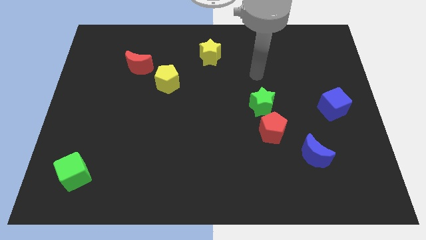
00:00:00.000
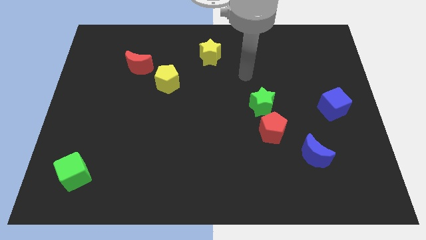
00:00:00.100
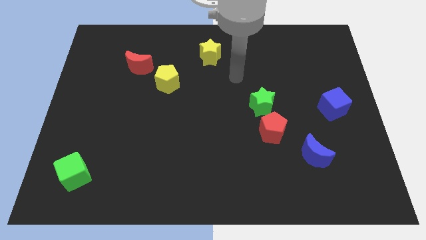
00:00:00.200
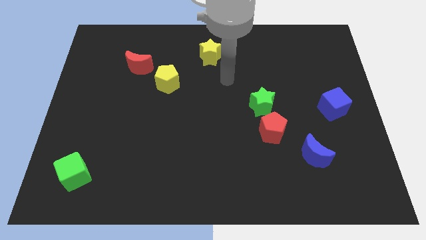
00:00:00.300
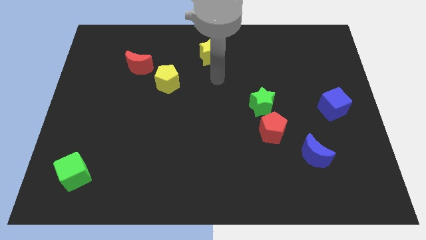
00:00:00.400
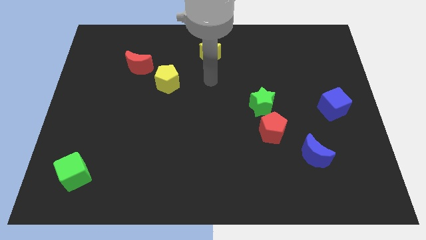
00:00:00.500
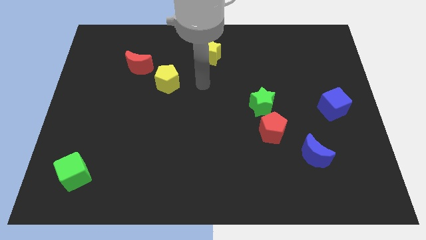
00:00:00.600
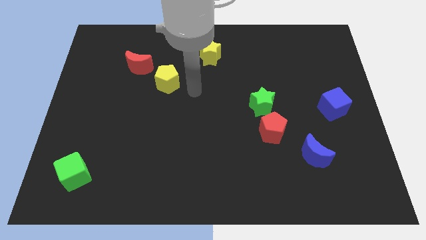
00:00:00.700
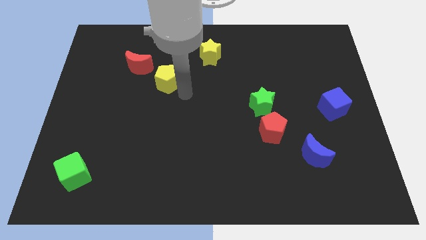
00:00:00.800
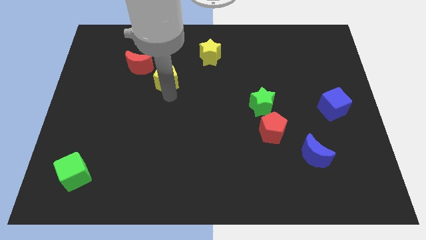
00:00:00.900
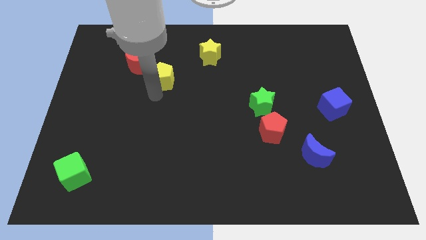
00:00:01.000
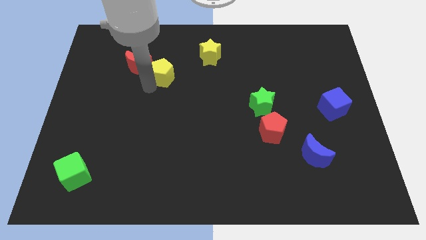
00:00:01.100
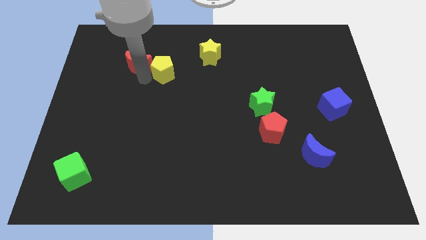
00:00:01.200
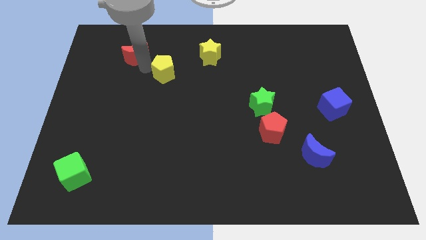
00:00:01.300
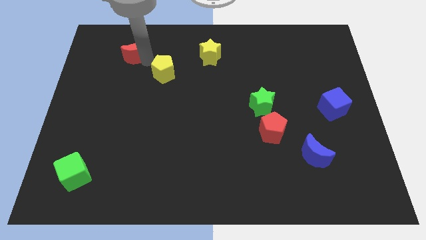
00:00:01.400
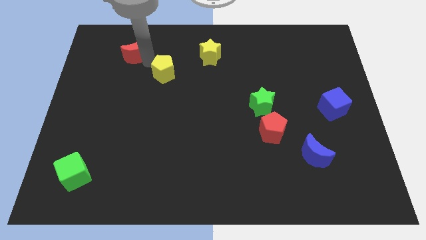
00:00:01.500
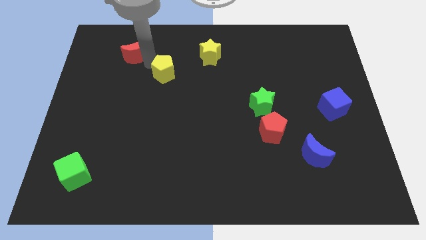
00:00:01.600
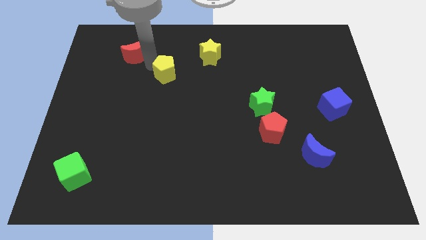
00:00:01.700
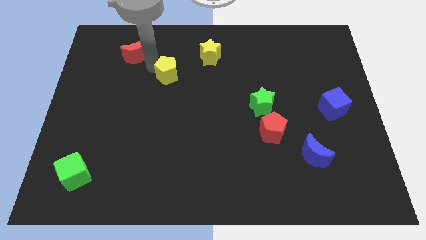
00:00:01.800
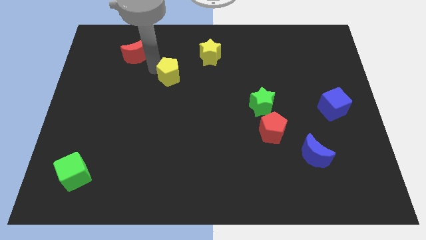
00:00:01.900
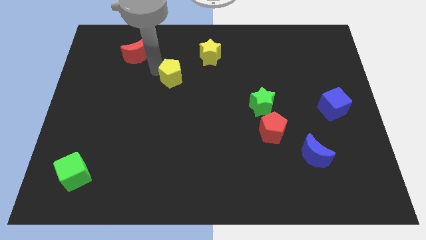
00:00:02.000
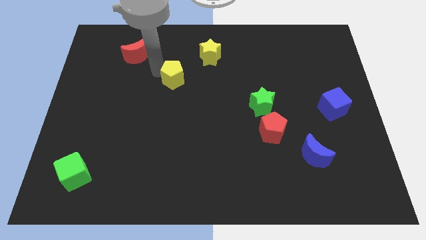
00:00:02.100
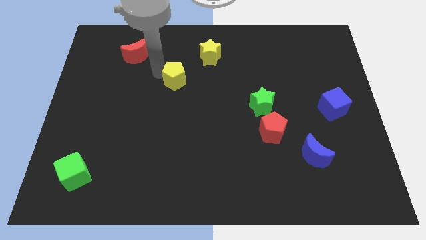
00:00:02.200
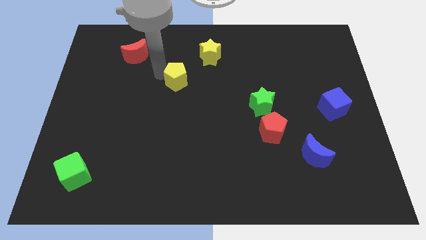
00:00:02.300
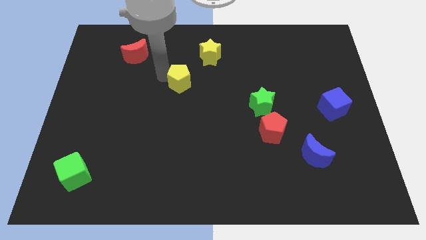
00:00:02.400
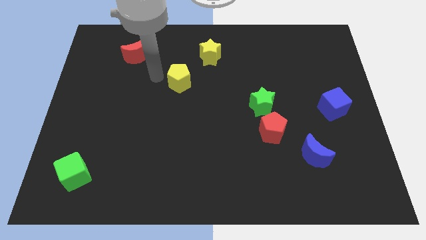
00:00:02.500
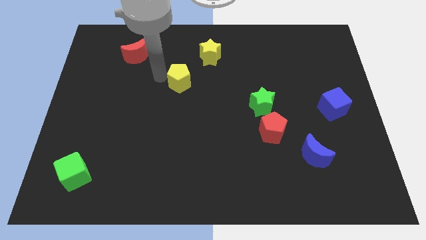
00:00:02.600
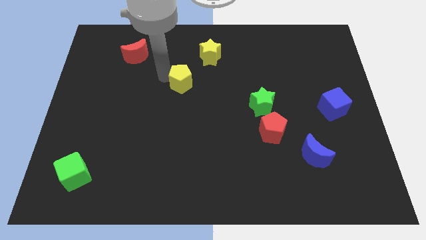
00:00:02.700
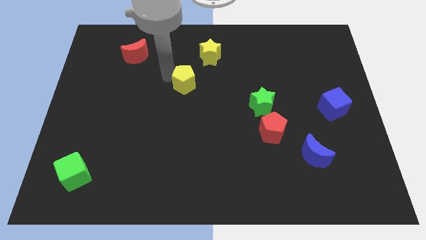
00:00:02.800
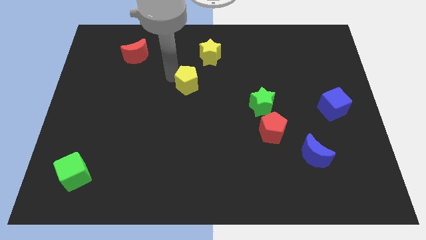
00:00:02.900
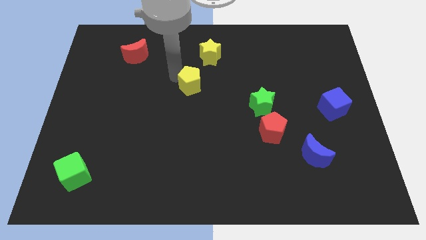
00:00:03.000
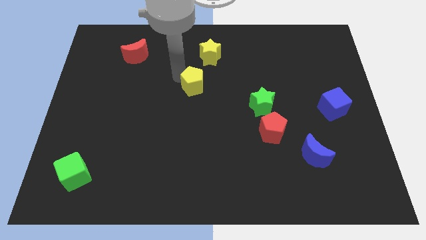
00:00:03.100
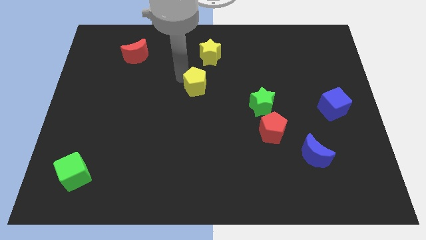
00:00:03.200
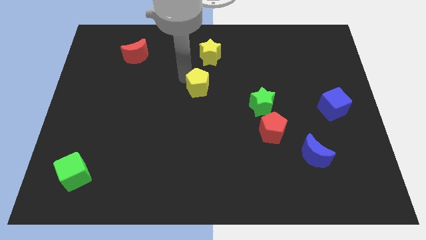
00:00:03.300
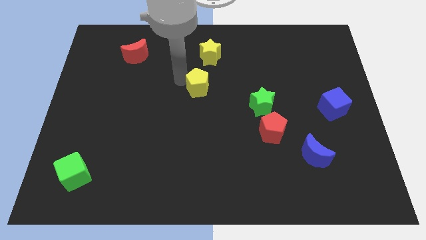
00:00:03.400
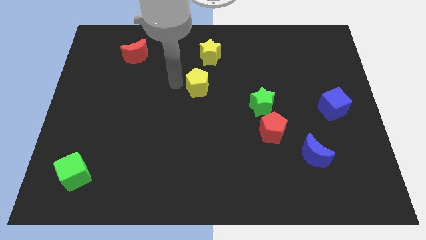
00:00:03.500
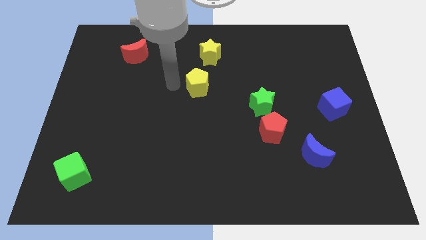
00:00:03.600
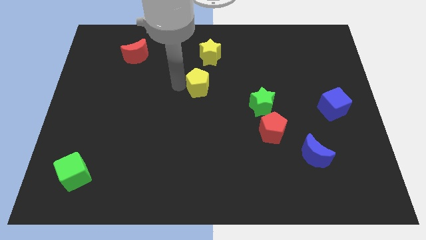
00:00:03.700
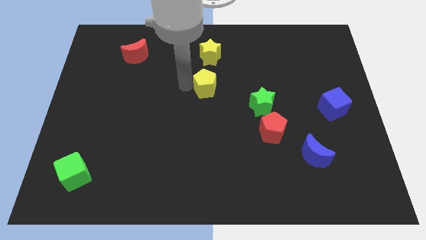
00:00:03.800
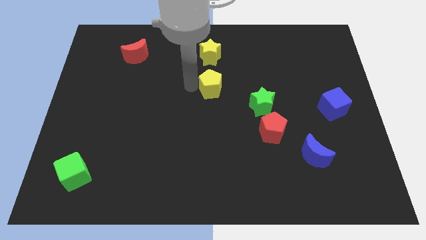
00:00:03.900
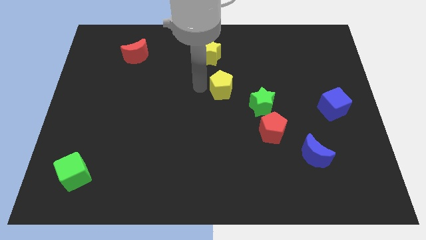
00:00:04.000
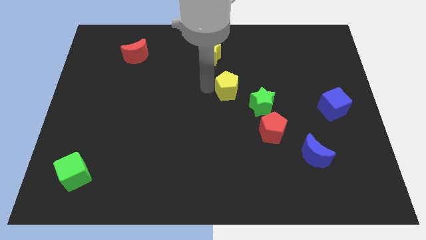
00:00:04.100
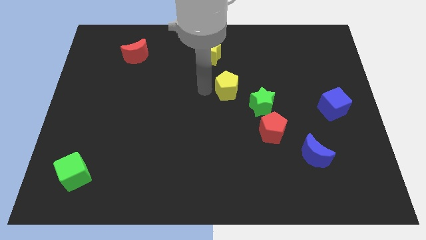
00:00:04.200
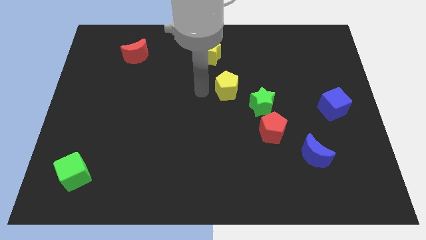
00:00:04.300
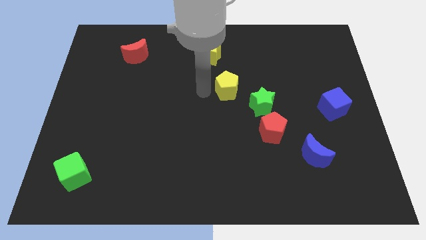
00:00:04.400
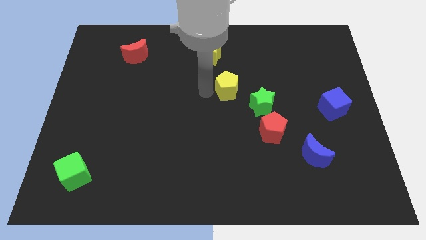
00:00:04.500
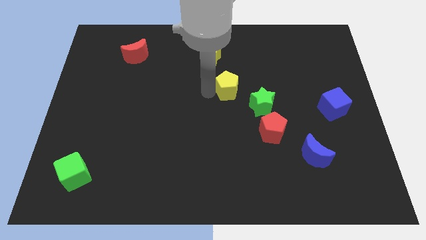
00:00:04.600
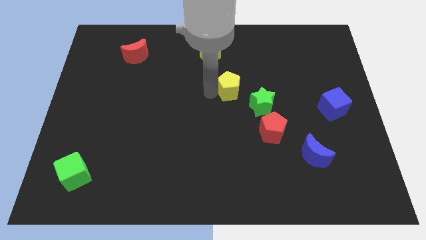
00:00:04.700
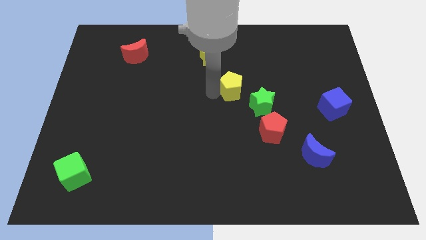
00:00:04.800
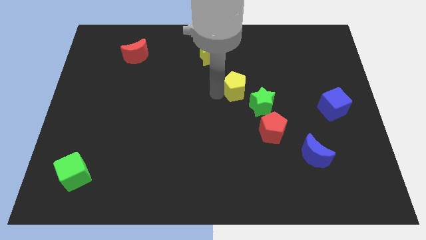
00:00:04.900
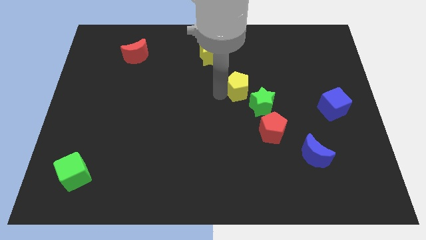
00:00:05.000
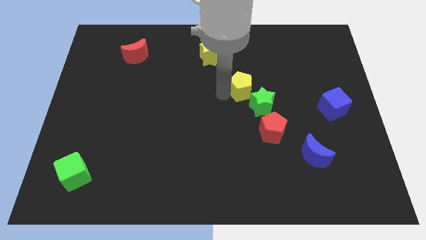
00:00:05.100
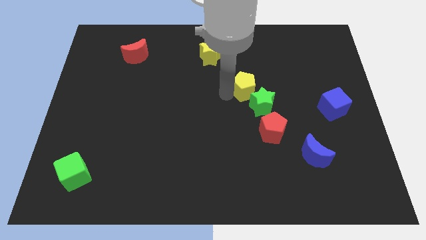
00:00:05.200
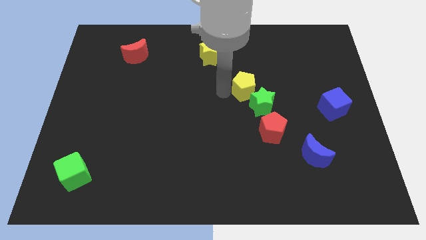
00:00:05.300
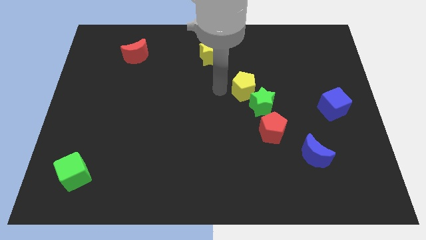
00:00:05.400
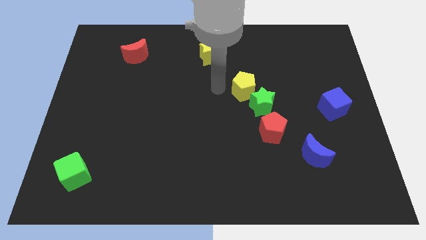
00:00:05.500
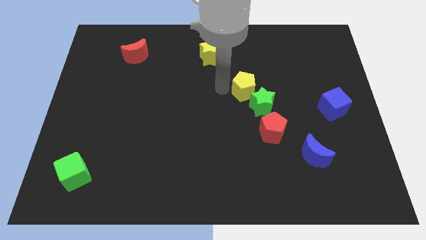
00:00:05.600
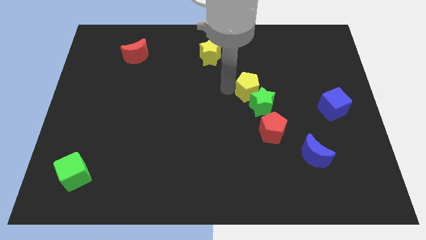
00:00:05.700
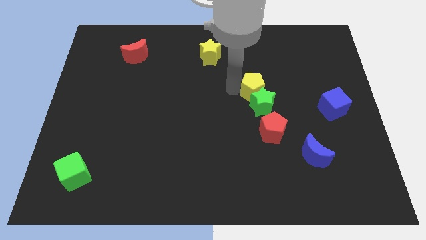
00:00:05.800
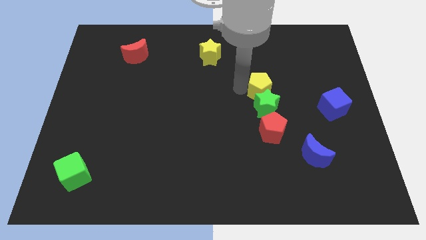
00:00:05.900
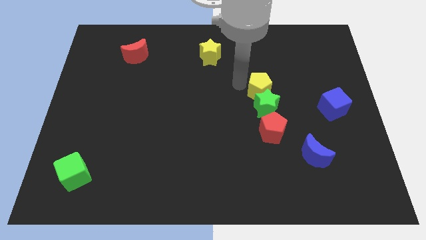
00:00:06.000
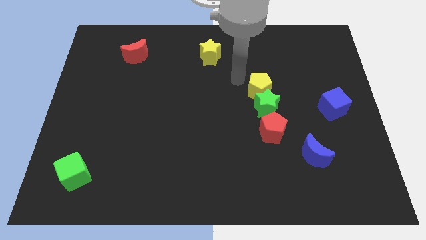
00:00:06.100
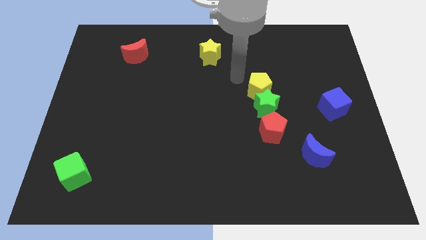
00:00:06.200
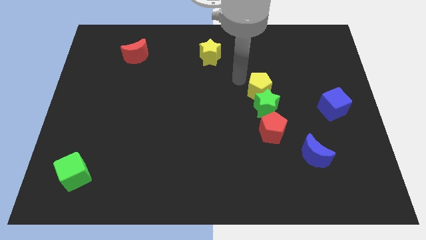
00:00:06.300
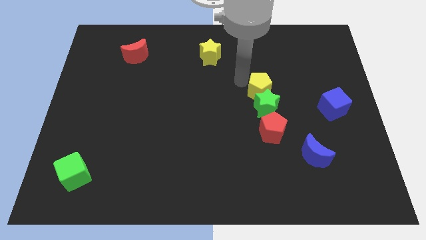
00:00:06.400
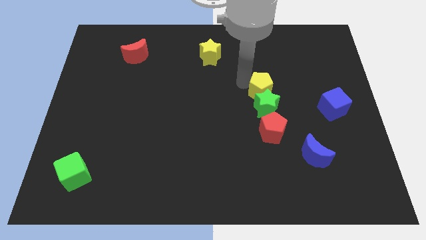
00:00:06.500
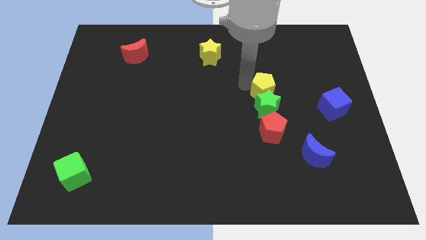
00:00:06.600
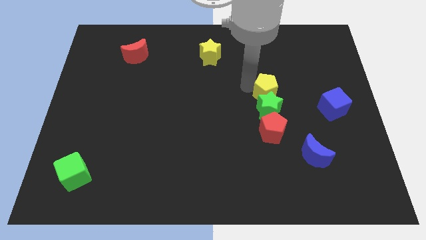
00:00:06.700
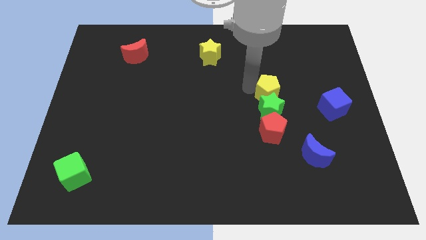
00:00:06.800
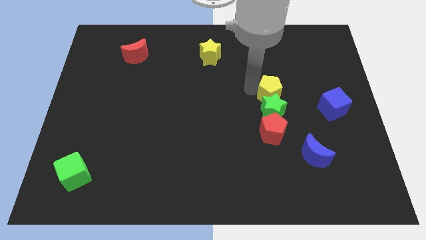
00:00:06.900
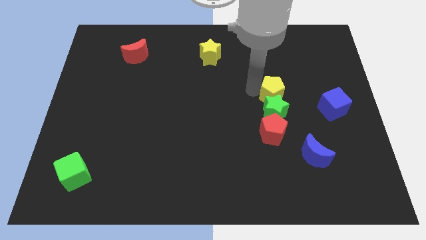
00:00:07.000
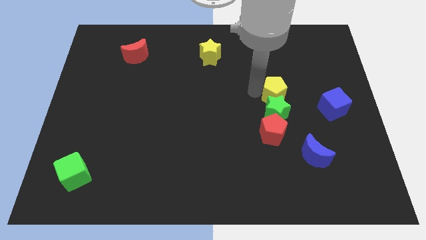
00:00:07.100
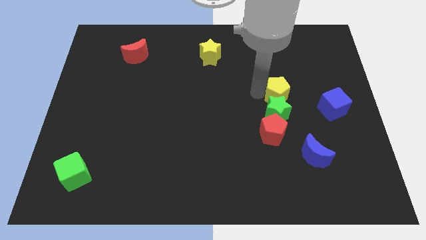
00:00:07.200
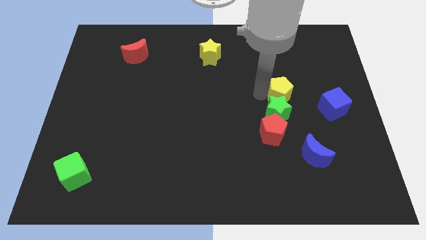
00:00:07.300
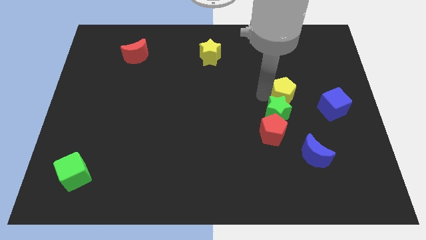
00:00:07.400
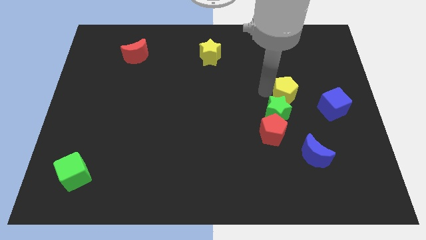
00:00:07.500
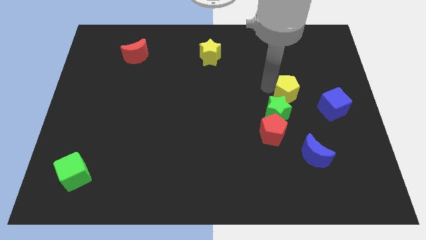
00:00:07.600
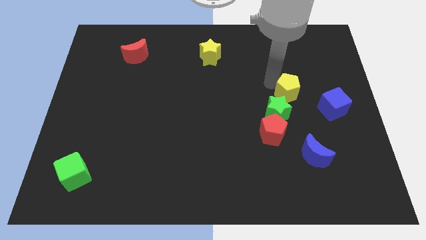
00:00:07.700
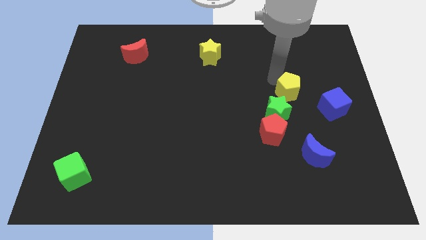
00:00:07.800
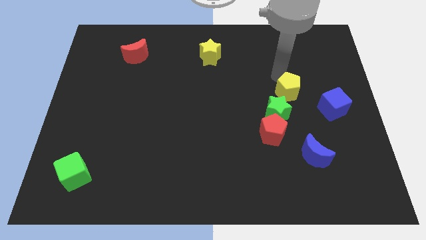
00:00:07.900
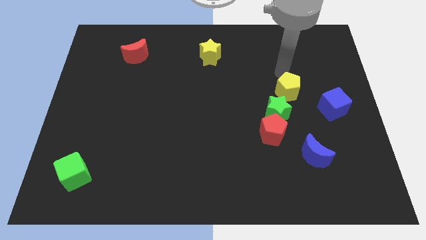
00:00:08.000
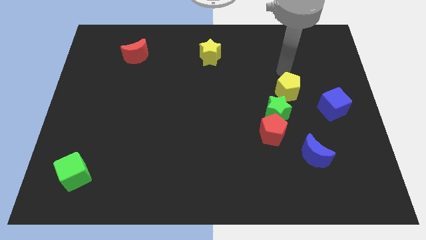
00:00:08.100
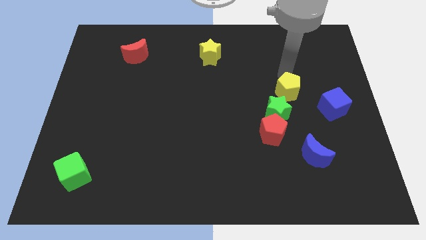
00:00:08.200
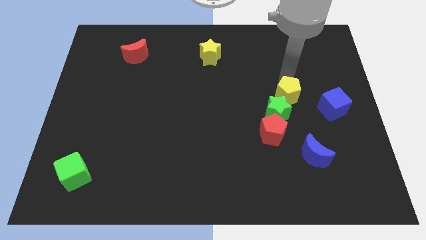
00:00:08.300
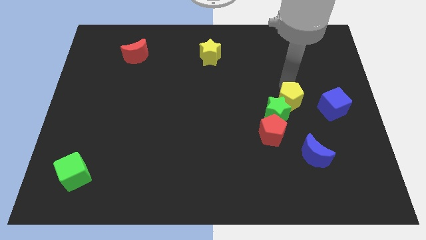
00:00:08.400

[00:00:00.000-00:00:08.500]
slide the yellow pentagon diagonally up and to the right of the red pentagon
